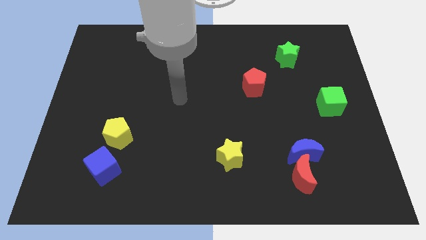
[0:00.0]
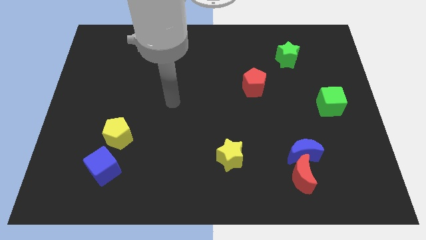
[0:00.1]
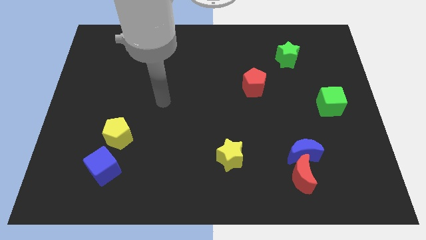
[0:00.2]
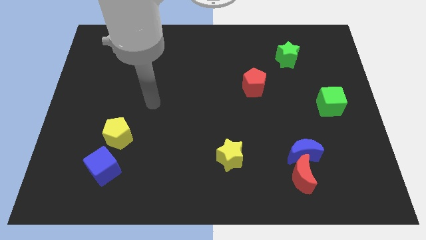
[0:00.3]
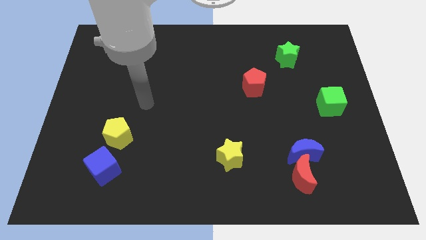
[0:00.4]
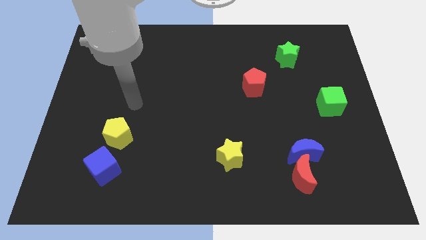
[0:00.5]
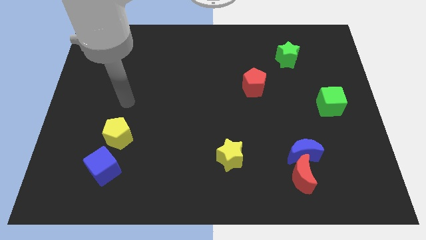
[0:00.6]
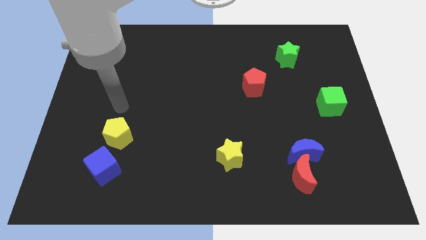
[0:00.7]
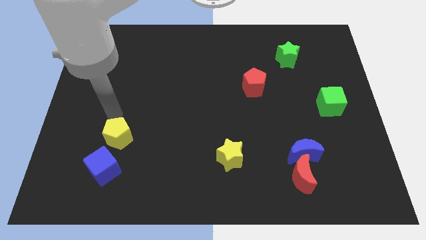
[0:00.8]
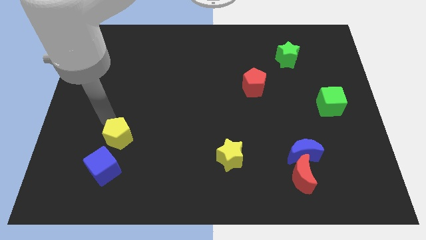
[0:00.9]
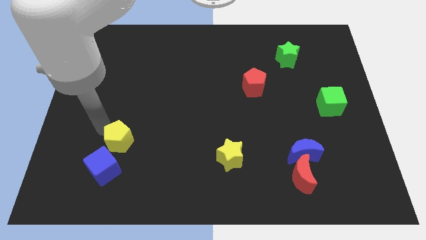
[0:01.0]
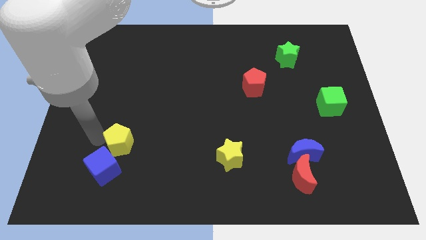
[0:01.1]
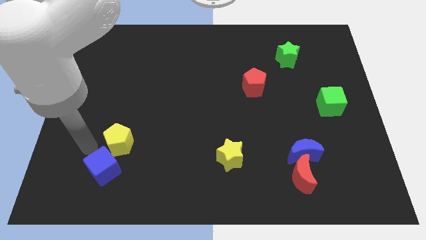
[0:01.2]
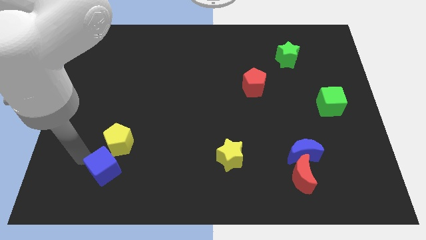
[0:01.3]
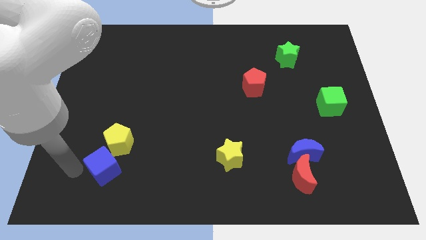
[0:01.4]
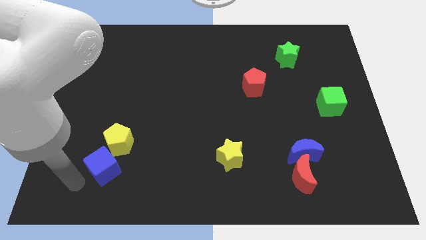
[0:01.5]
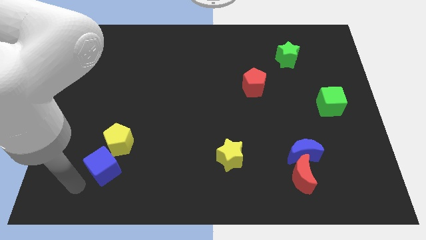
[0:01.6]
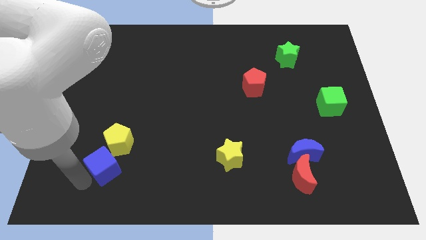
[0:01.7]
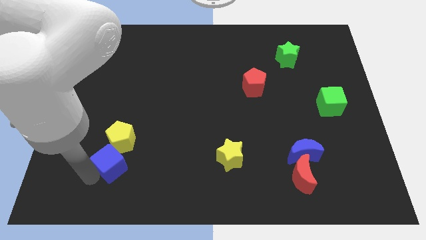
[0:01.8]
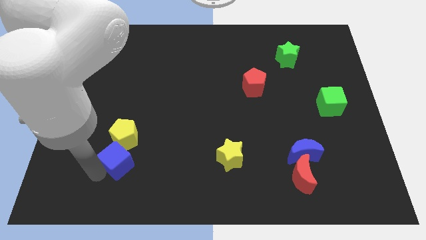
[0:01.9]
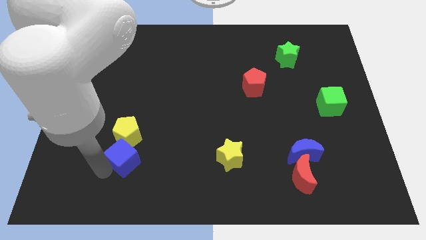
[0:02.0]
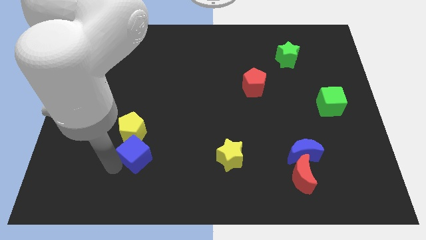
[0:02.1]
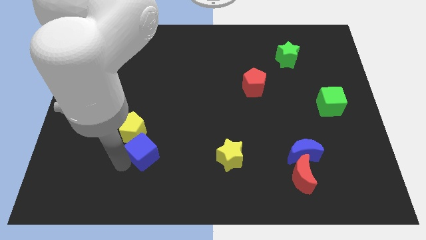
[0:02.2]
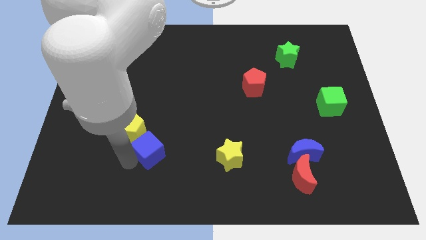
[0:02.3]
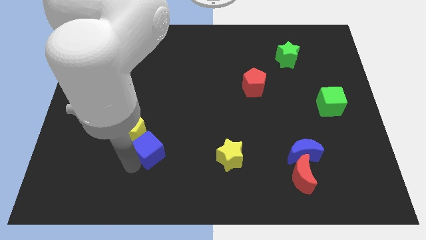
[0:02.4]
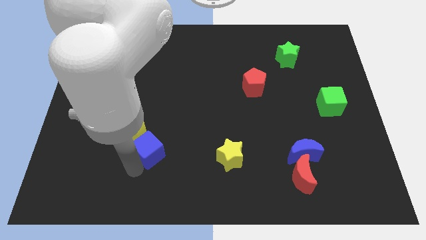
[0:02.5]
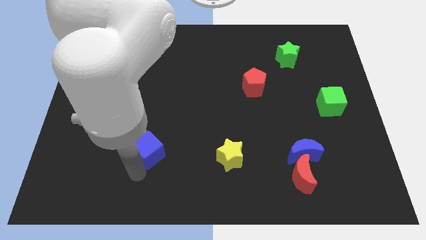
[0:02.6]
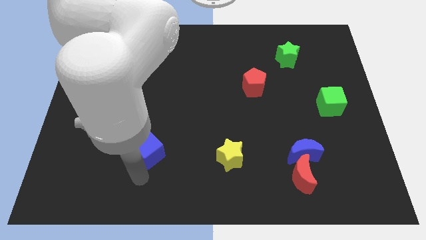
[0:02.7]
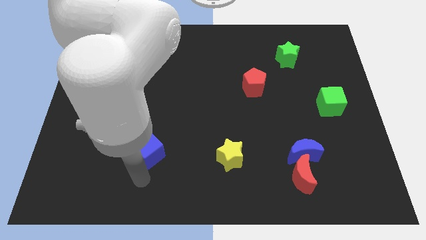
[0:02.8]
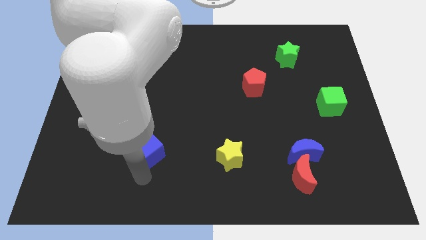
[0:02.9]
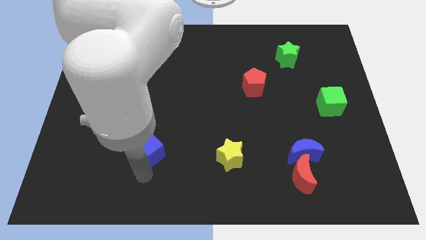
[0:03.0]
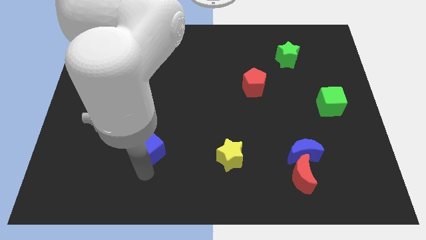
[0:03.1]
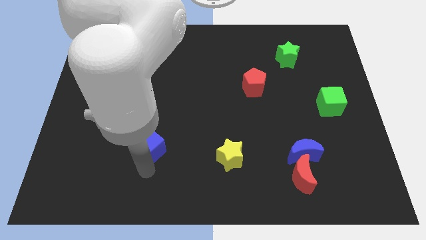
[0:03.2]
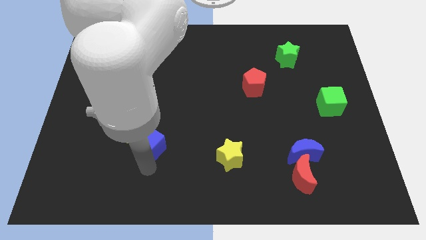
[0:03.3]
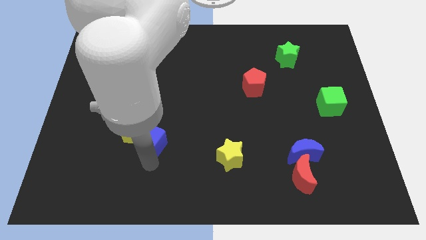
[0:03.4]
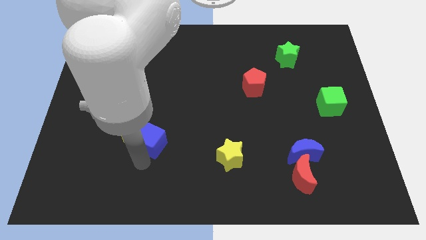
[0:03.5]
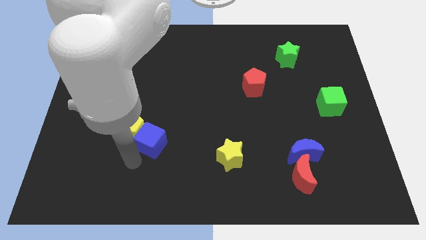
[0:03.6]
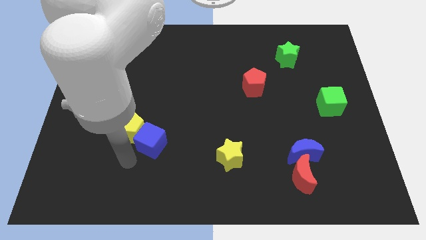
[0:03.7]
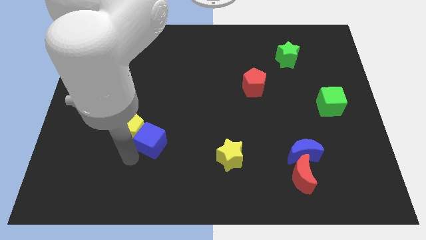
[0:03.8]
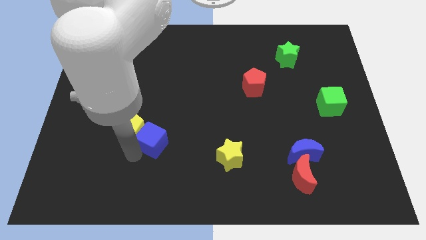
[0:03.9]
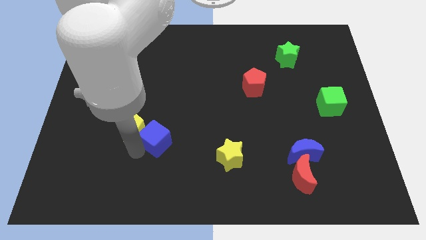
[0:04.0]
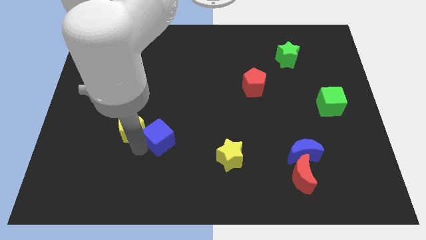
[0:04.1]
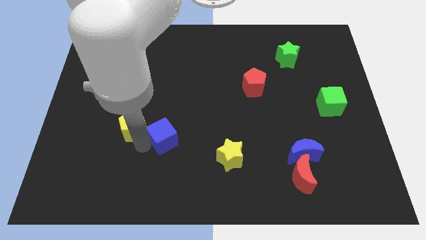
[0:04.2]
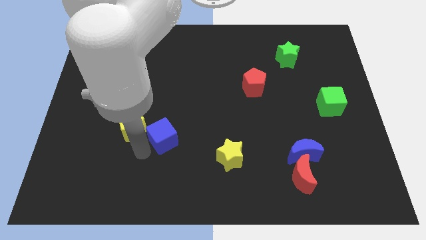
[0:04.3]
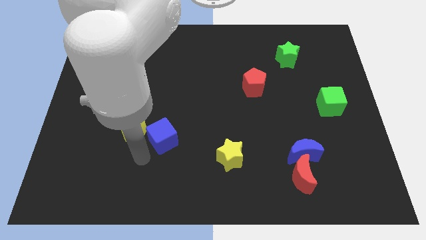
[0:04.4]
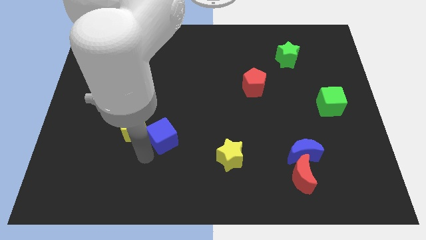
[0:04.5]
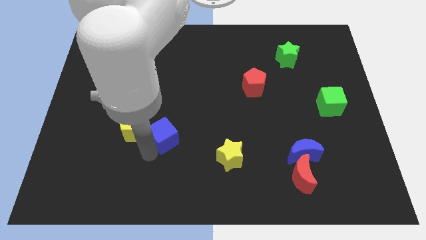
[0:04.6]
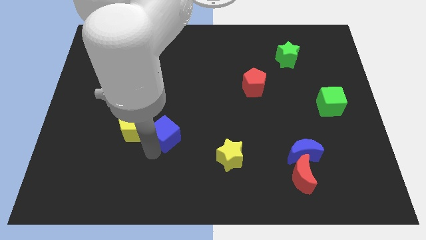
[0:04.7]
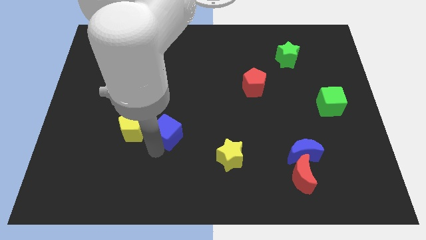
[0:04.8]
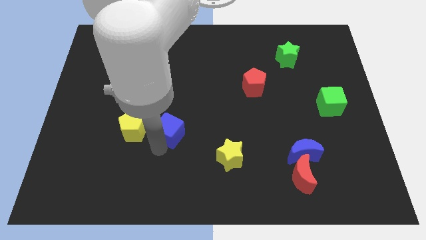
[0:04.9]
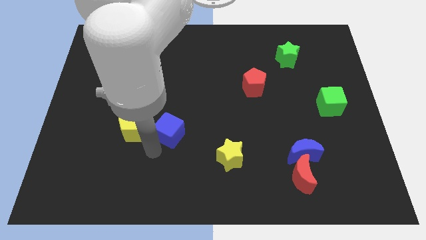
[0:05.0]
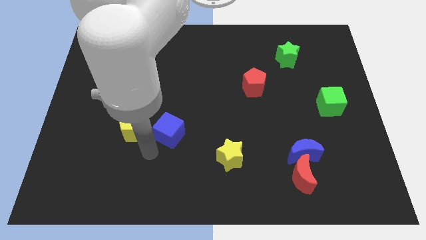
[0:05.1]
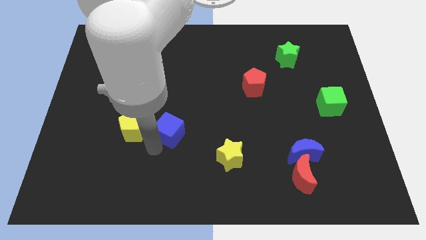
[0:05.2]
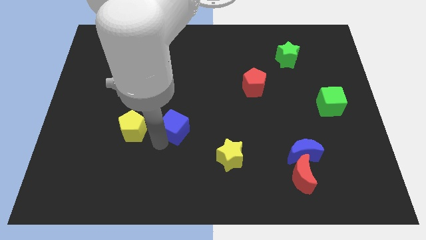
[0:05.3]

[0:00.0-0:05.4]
push the blue cube to the center
